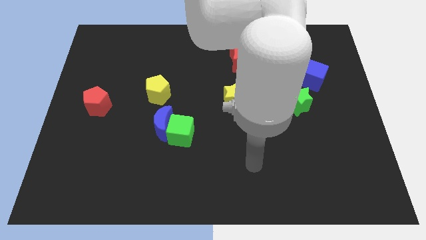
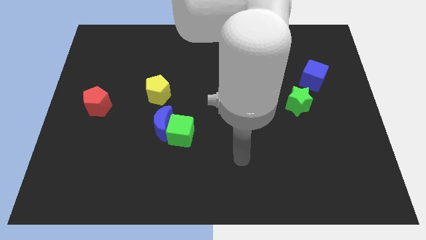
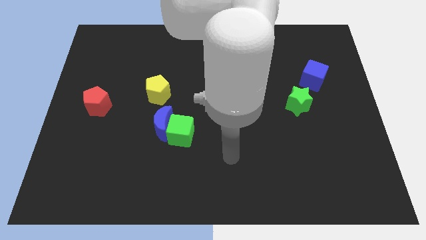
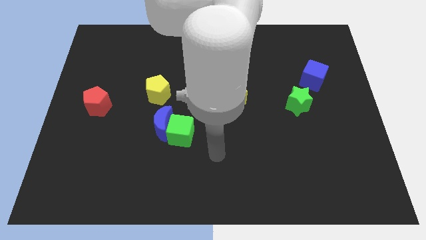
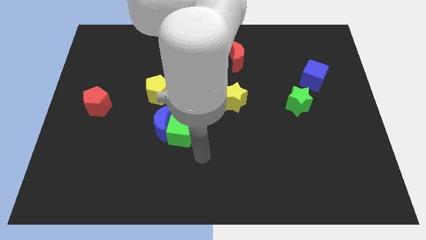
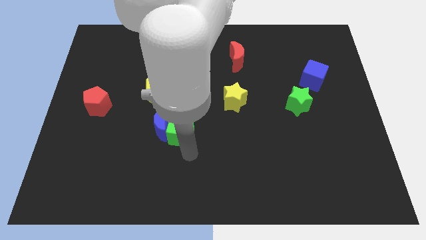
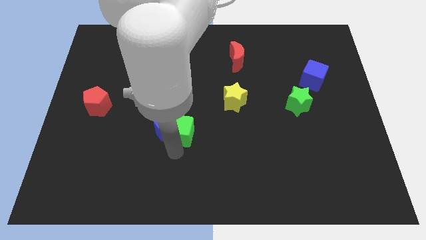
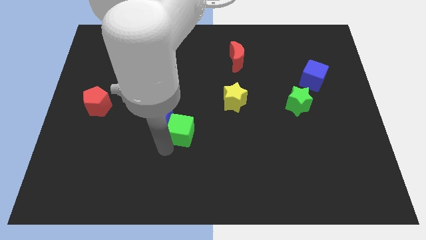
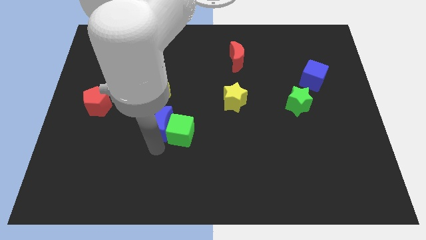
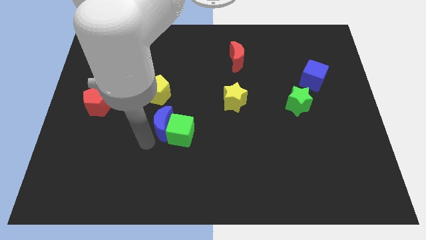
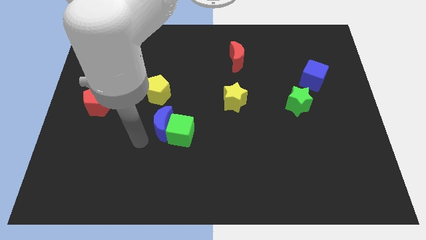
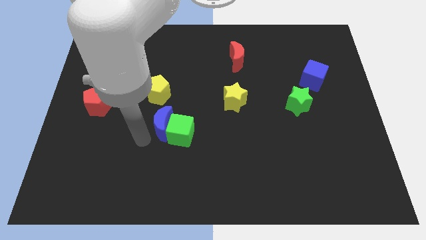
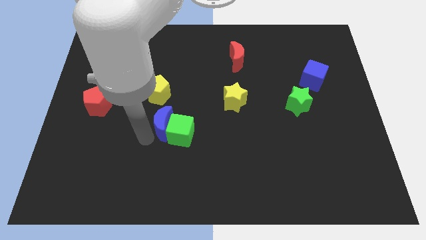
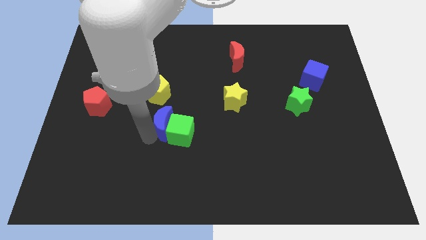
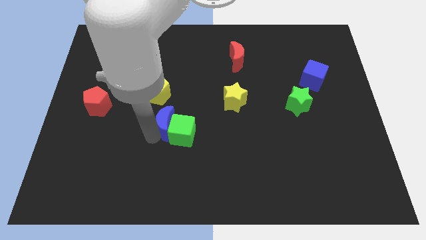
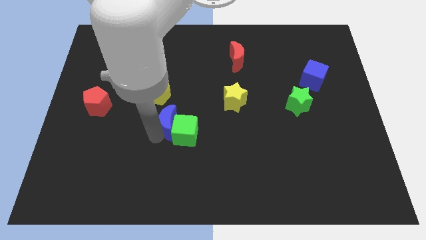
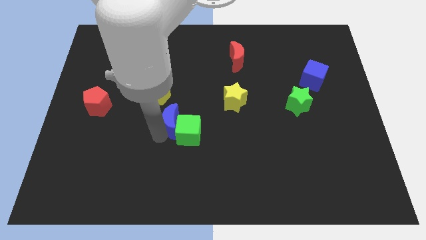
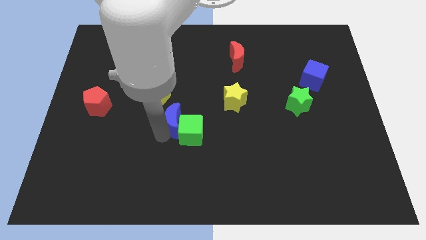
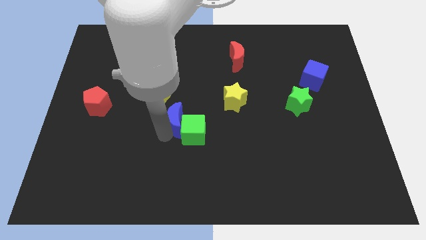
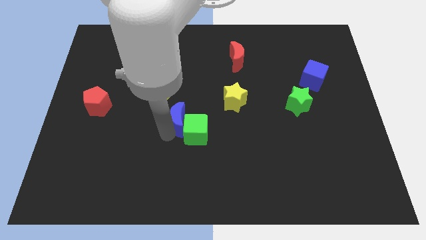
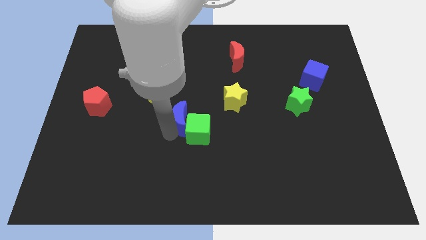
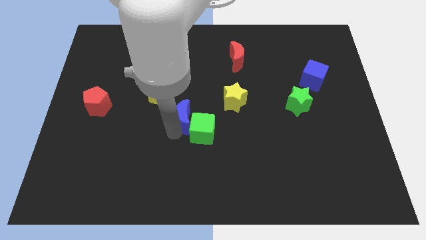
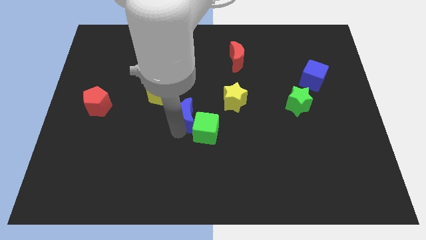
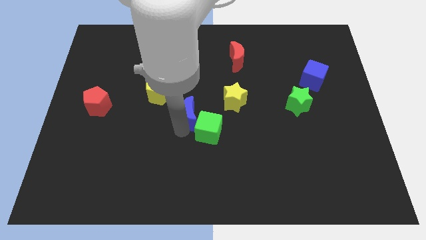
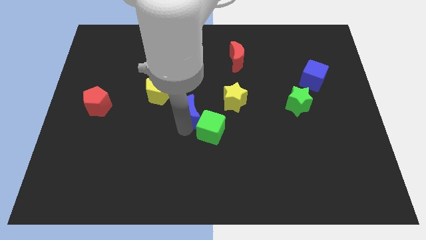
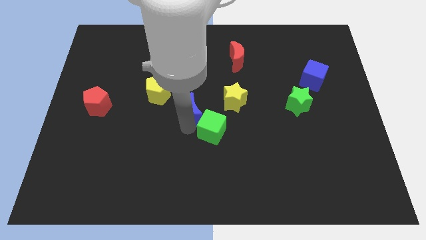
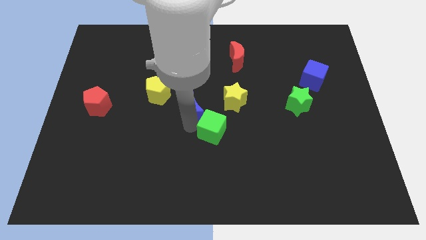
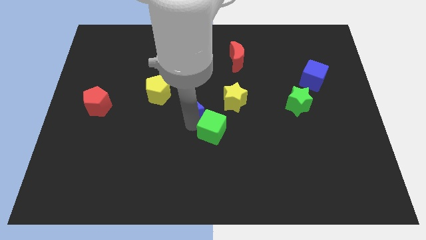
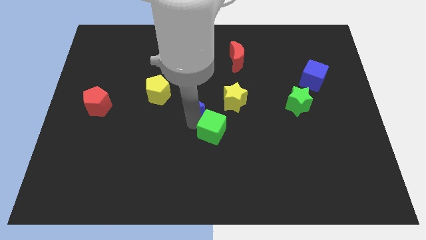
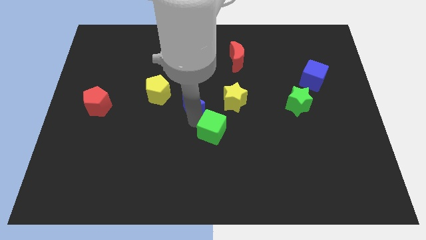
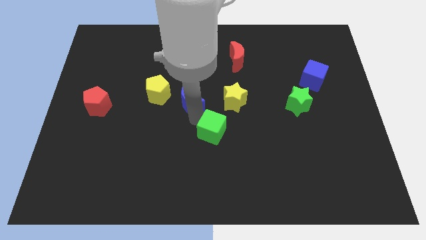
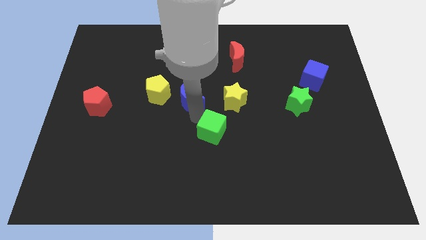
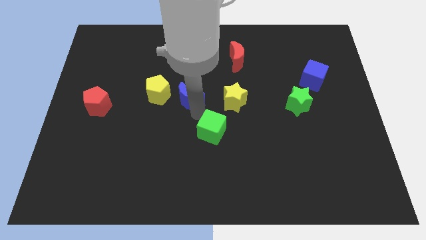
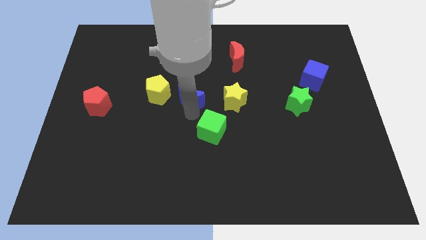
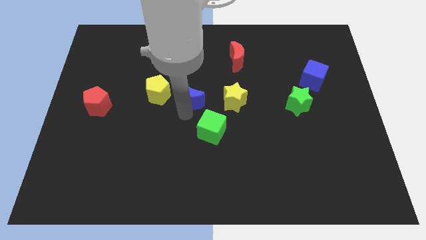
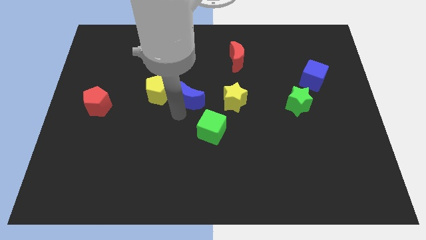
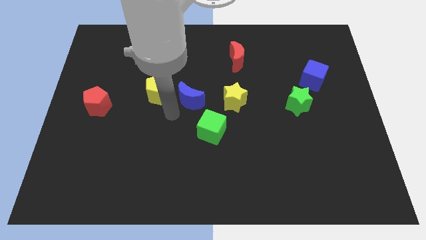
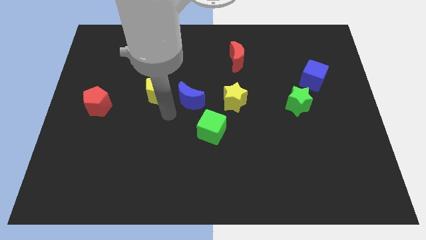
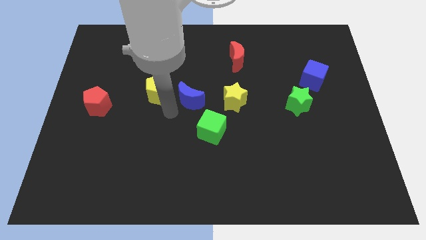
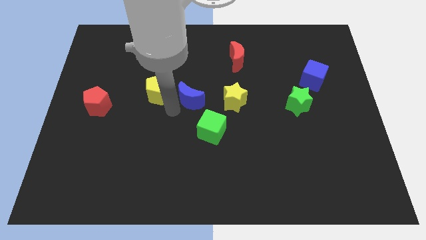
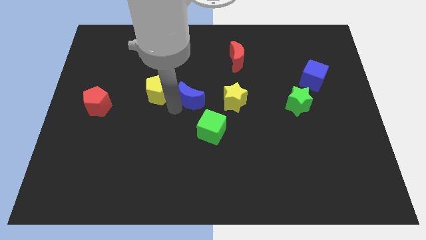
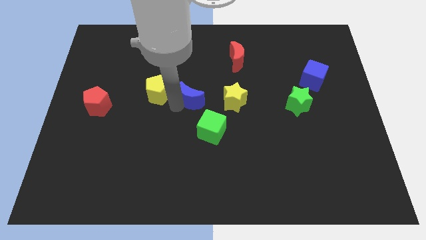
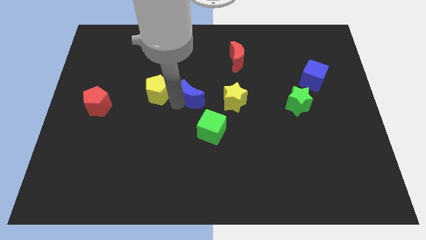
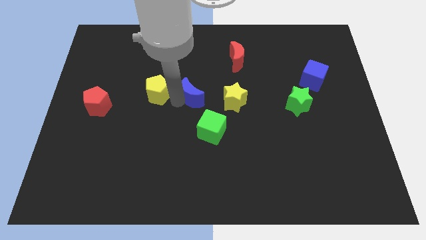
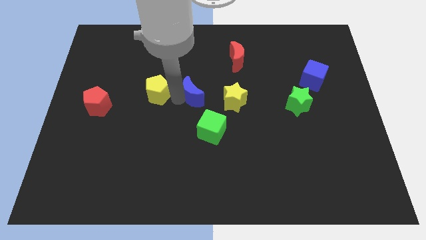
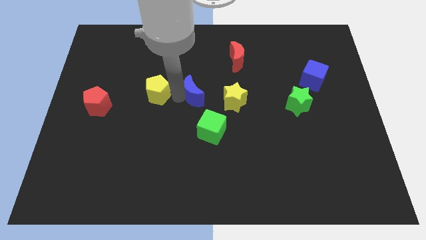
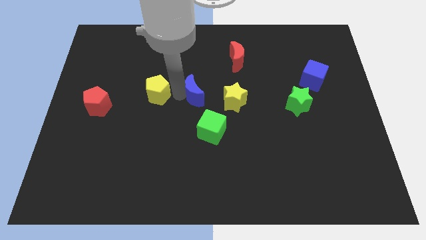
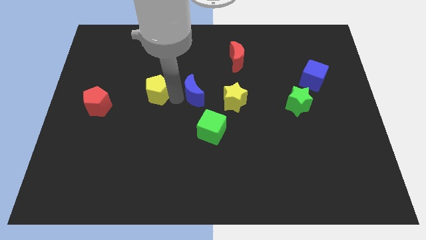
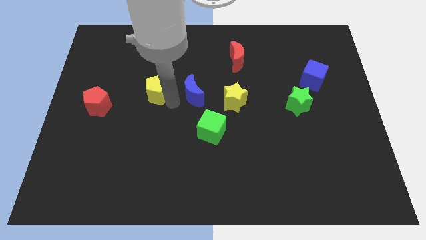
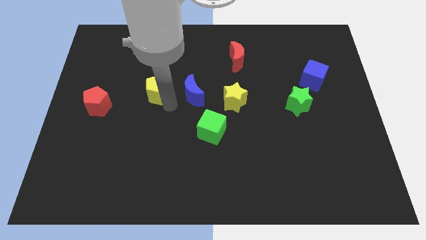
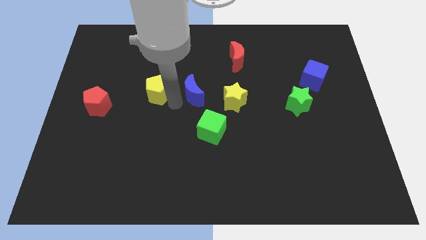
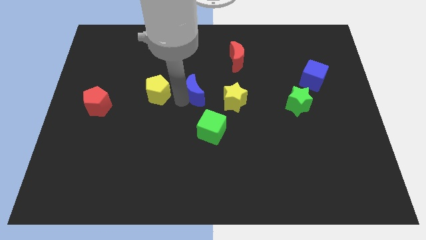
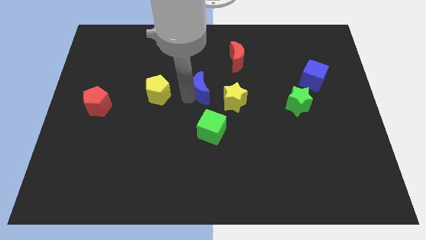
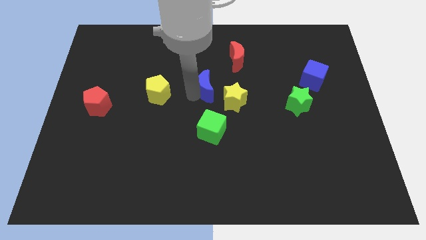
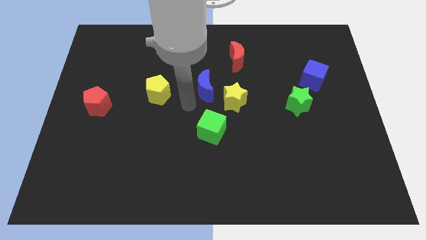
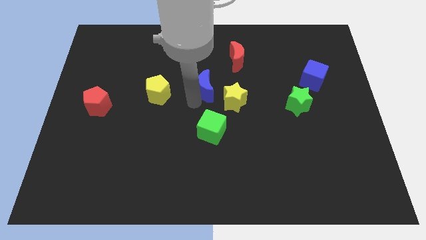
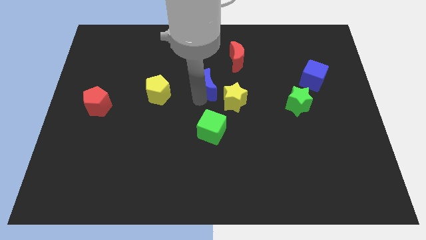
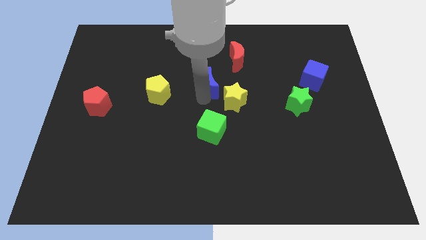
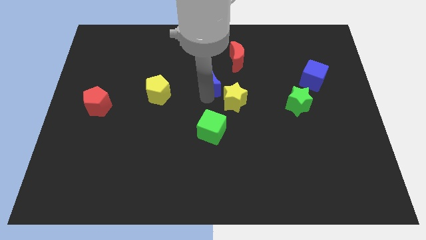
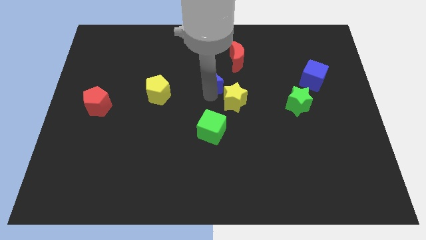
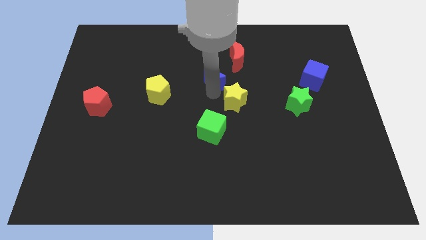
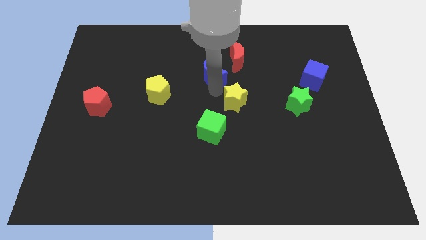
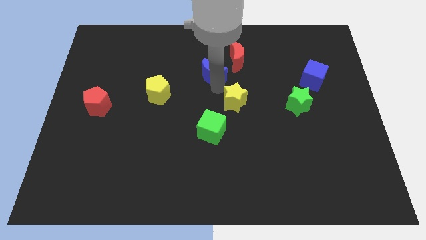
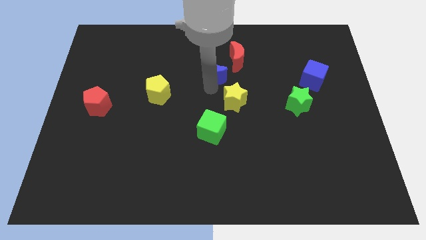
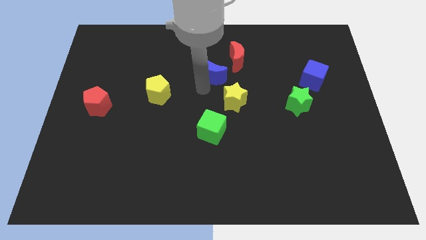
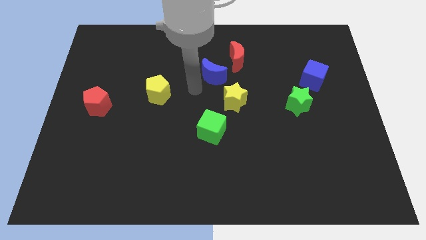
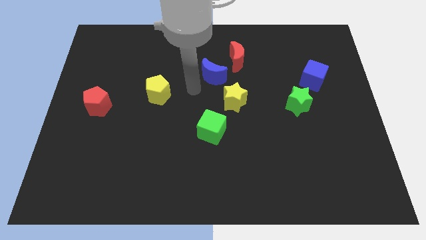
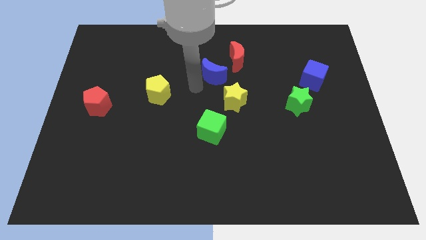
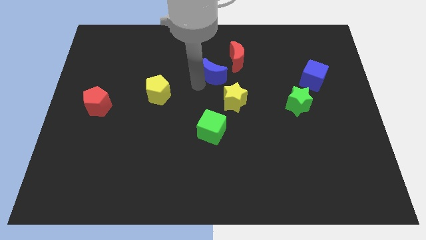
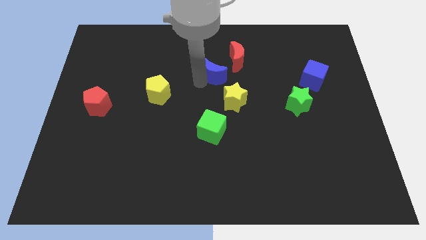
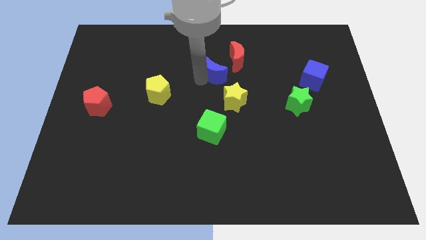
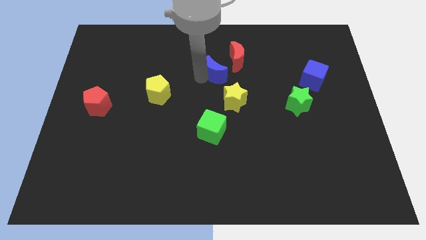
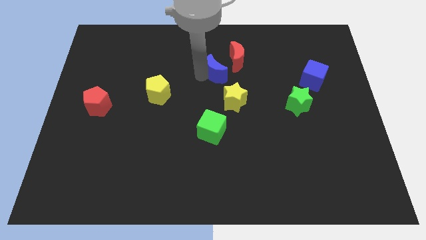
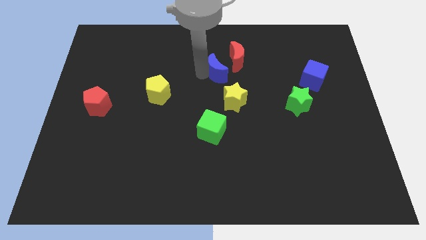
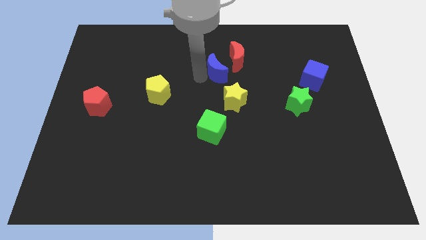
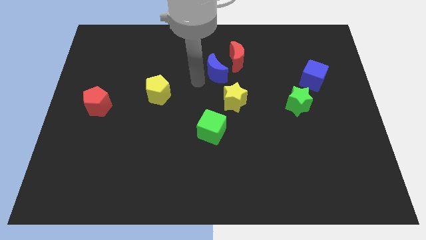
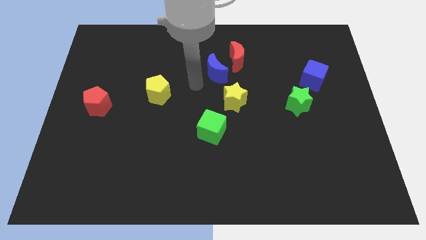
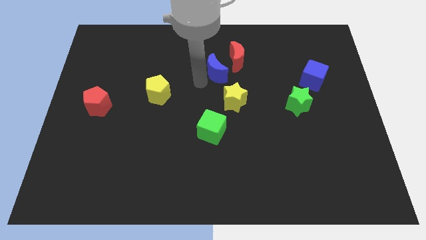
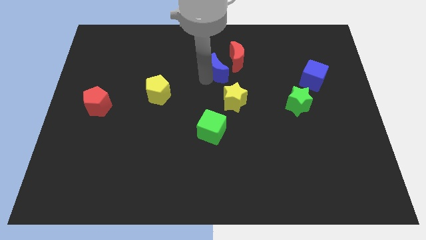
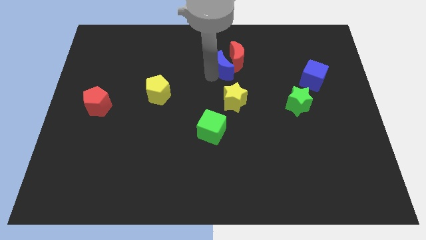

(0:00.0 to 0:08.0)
slide the blue moon close to the red moon
